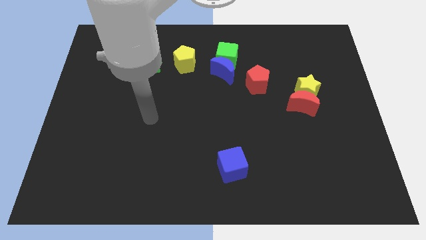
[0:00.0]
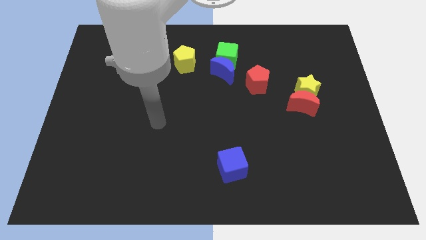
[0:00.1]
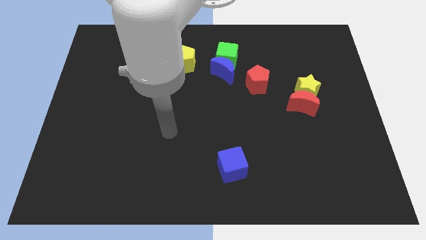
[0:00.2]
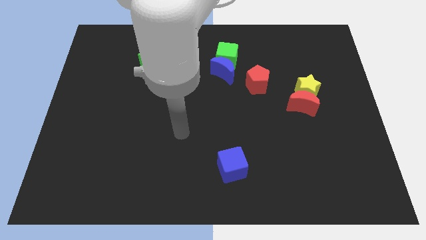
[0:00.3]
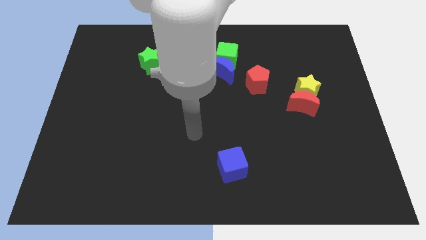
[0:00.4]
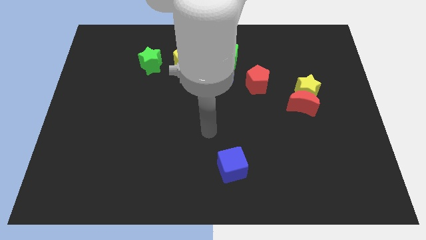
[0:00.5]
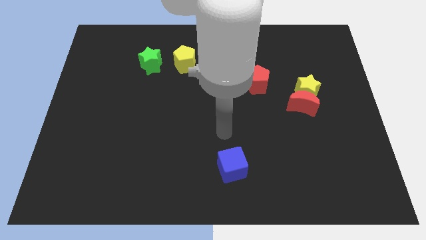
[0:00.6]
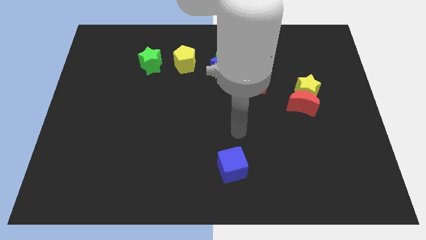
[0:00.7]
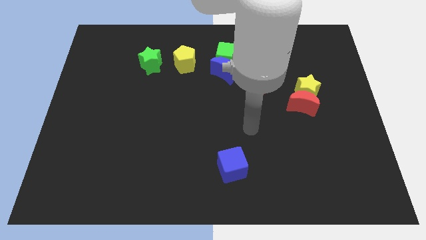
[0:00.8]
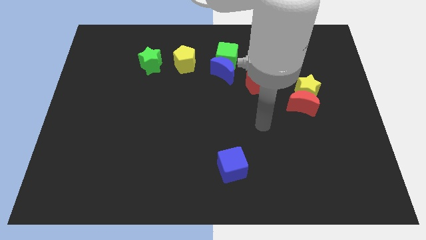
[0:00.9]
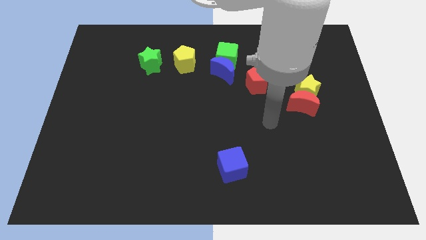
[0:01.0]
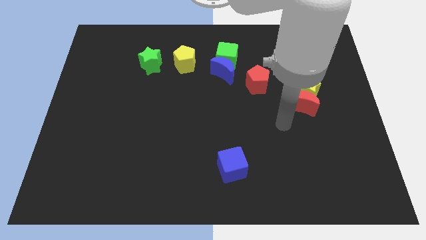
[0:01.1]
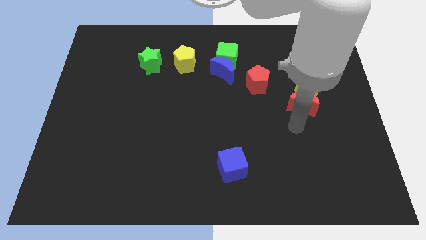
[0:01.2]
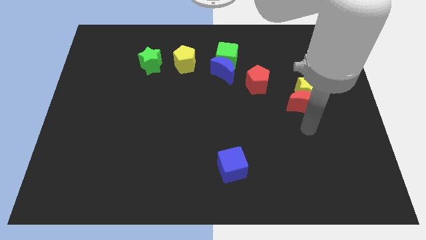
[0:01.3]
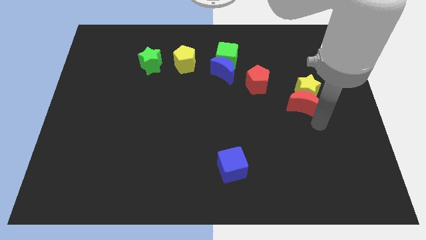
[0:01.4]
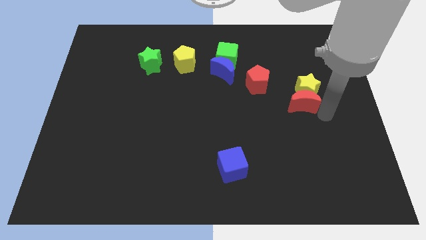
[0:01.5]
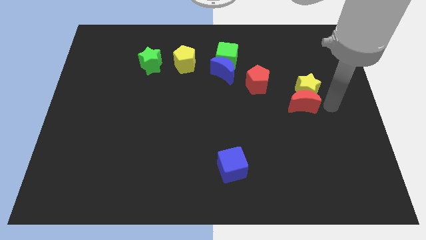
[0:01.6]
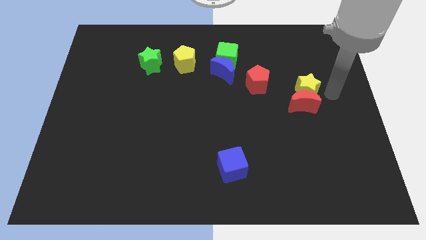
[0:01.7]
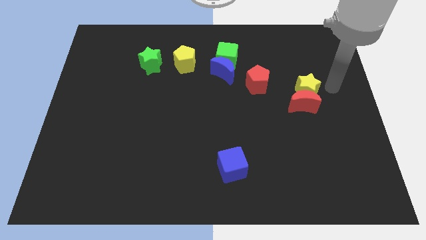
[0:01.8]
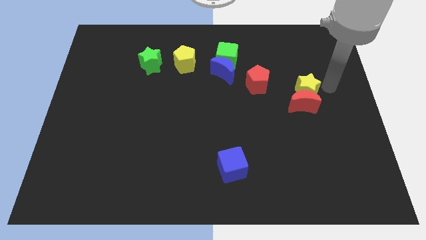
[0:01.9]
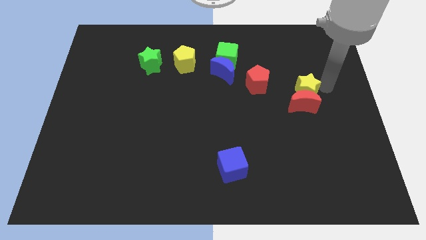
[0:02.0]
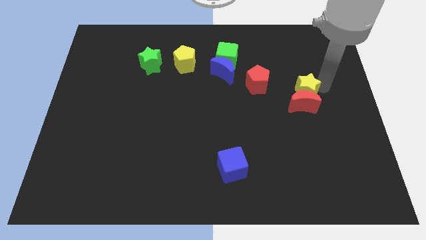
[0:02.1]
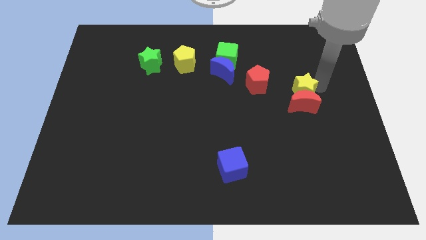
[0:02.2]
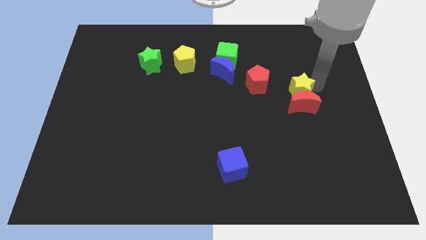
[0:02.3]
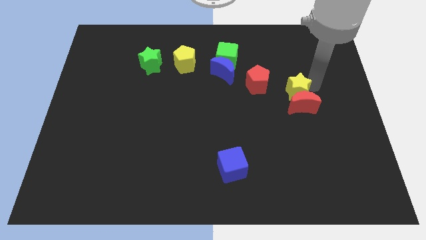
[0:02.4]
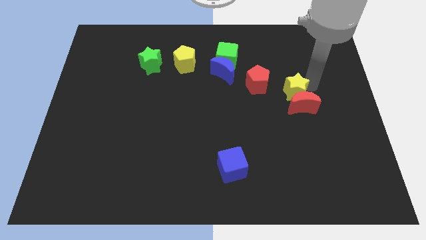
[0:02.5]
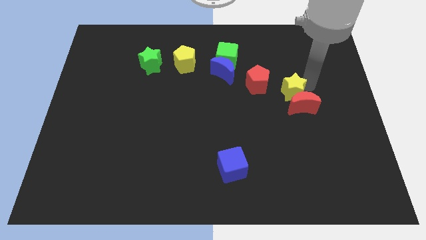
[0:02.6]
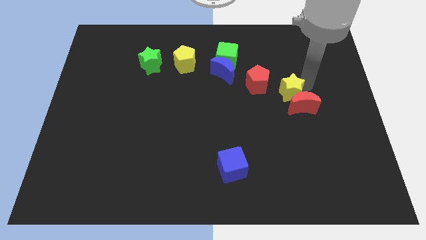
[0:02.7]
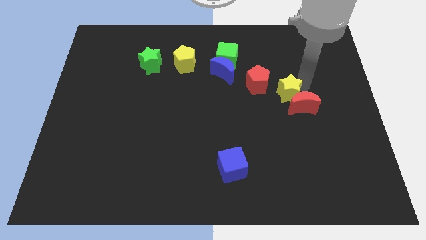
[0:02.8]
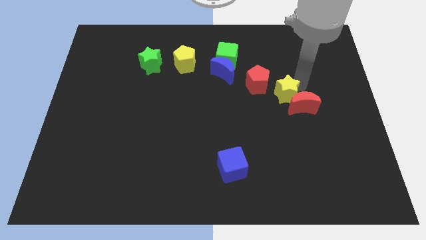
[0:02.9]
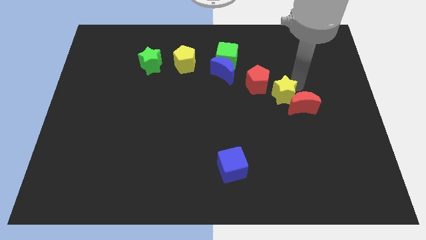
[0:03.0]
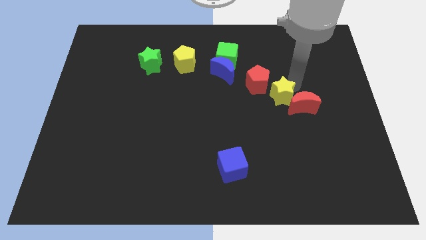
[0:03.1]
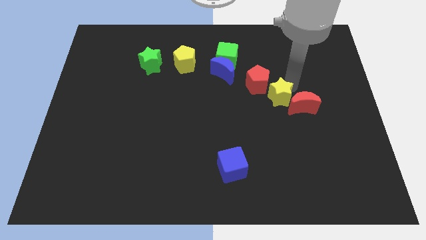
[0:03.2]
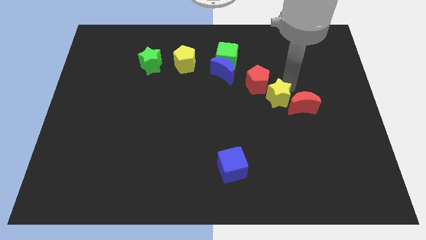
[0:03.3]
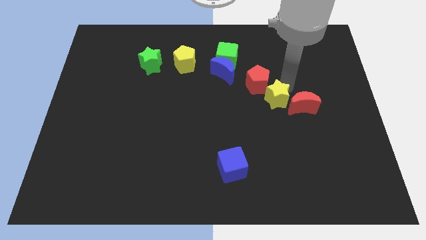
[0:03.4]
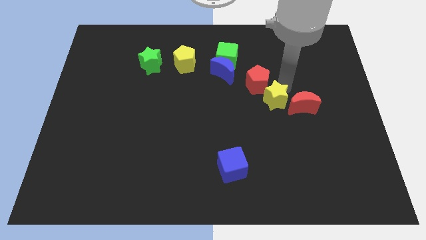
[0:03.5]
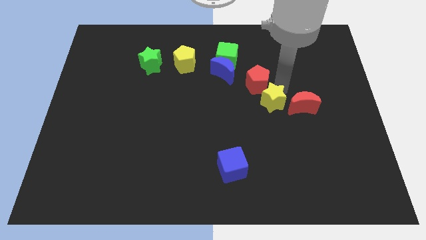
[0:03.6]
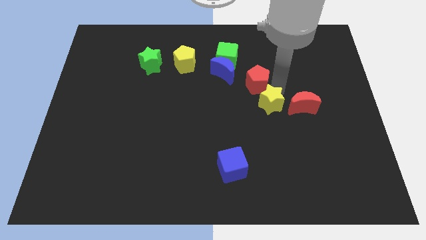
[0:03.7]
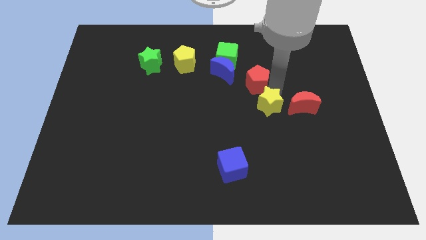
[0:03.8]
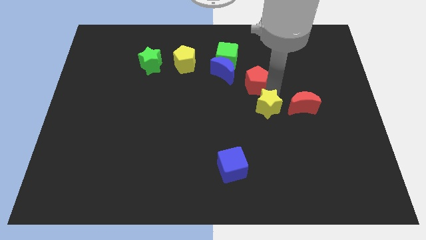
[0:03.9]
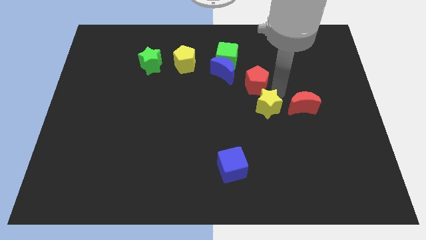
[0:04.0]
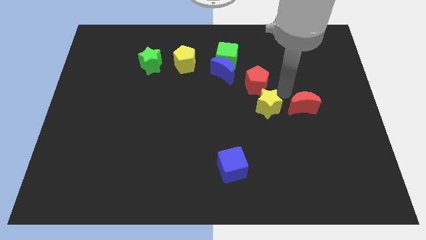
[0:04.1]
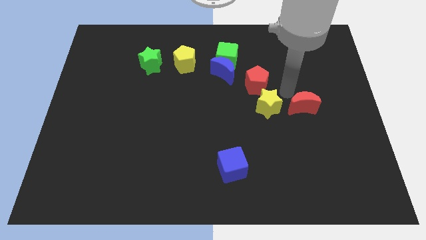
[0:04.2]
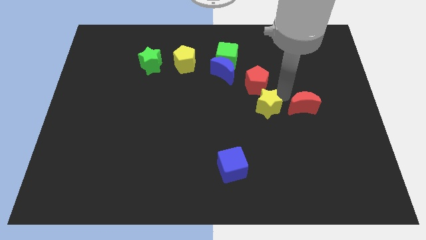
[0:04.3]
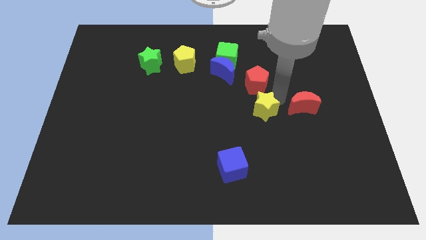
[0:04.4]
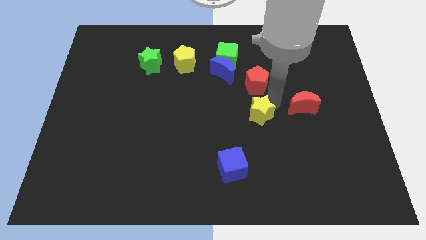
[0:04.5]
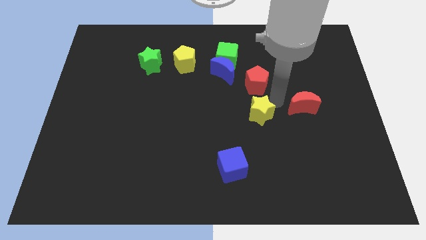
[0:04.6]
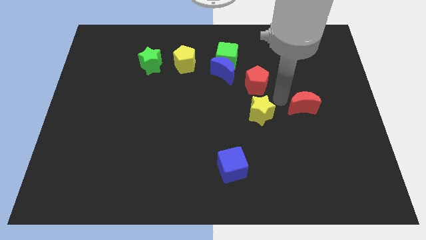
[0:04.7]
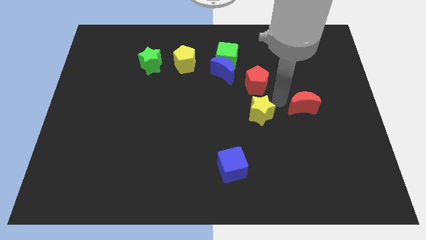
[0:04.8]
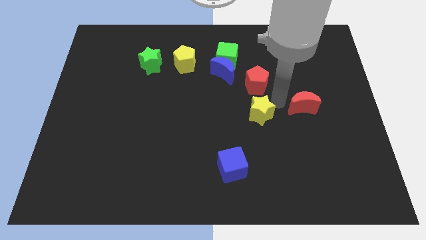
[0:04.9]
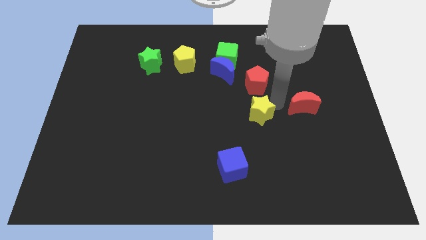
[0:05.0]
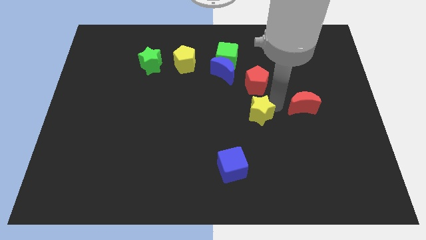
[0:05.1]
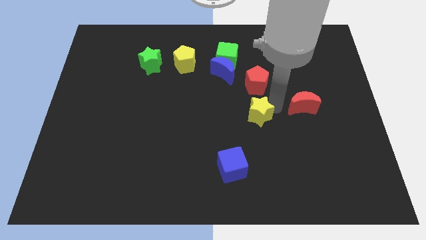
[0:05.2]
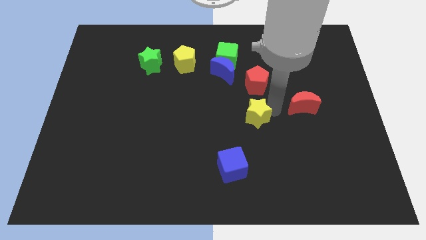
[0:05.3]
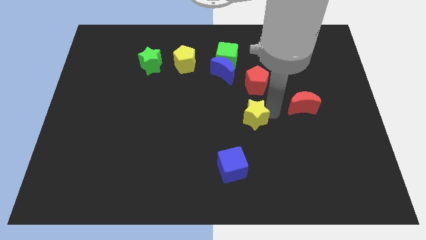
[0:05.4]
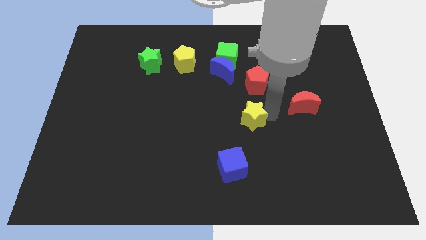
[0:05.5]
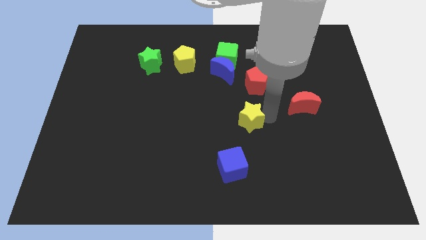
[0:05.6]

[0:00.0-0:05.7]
move the yellow star to the top of the blue cube

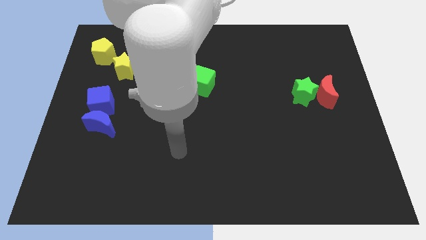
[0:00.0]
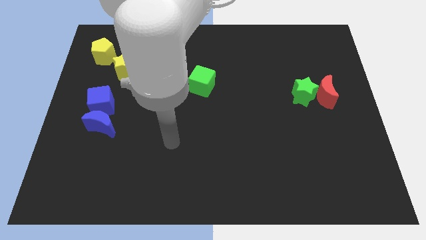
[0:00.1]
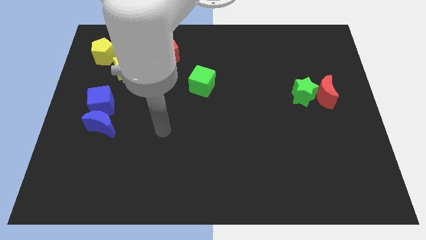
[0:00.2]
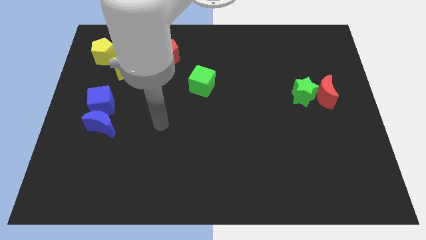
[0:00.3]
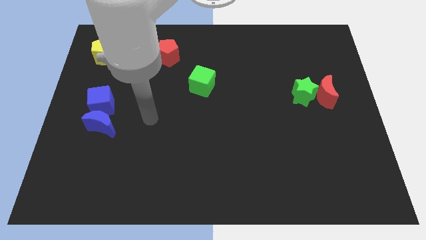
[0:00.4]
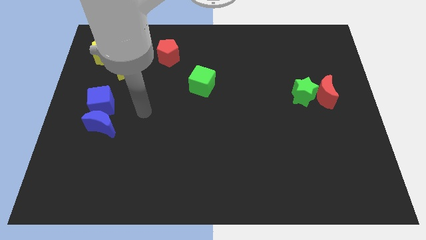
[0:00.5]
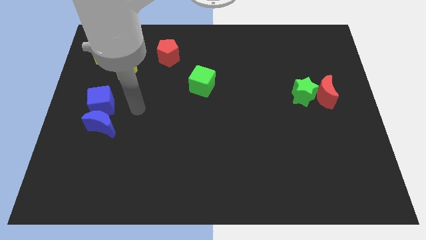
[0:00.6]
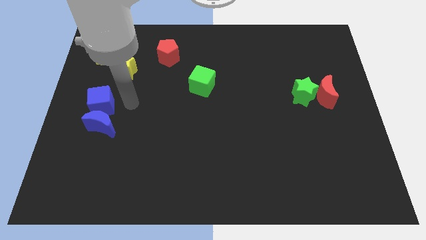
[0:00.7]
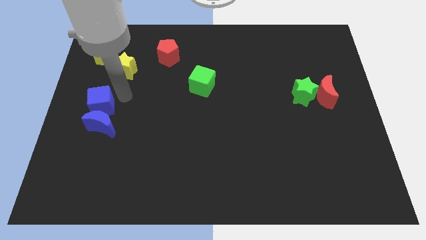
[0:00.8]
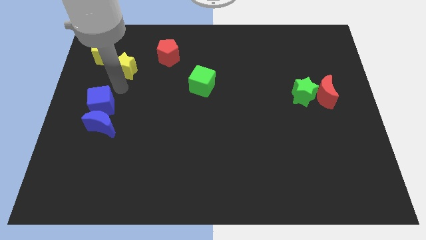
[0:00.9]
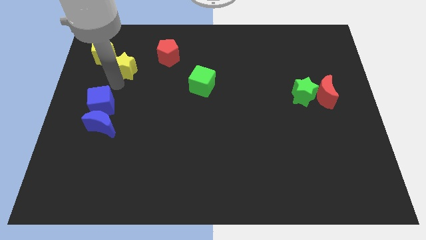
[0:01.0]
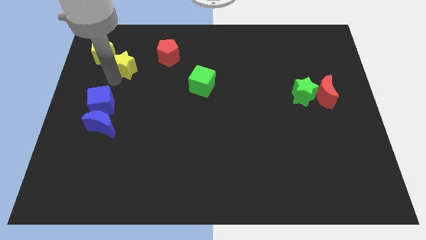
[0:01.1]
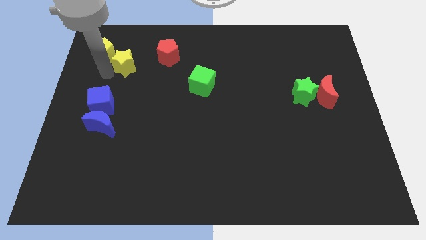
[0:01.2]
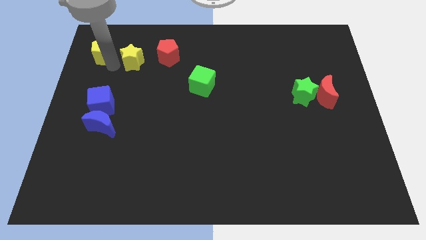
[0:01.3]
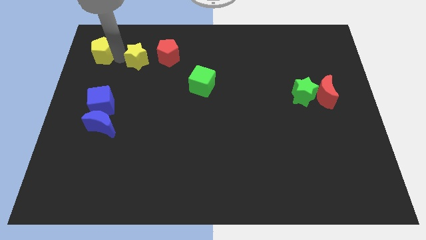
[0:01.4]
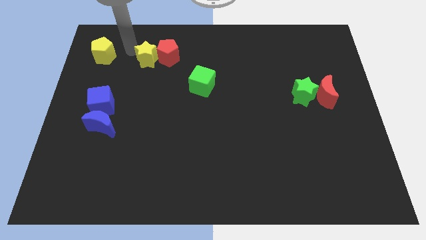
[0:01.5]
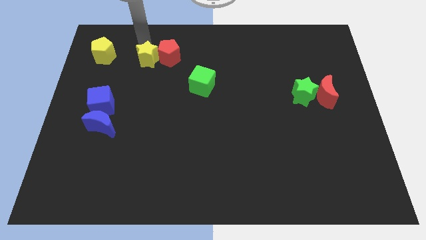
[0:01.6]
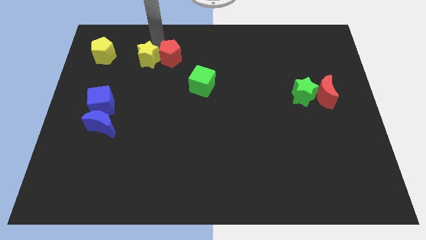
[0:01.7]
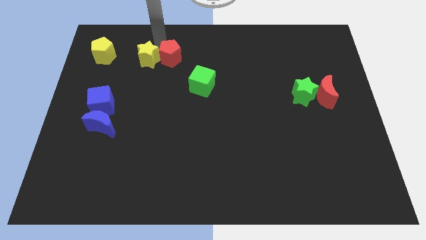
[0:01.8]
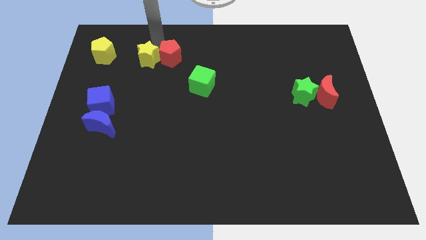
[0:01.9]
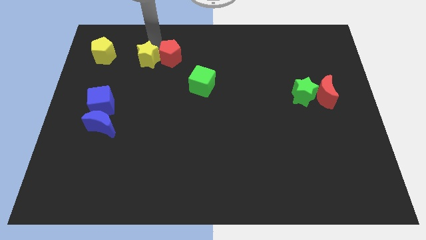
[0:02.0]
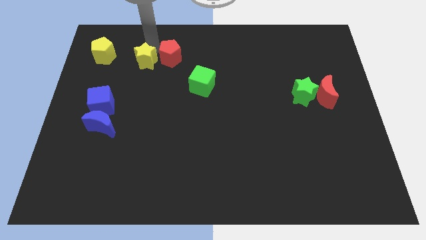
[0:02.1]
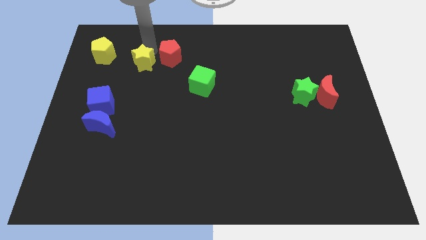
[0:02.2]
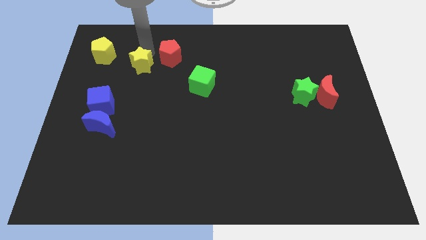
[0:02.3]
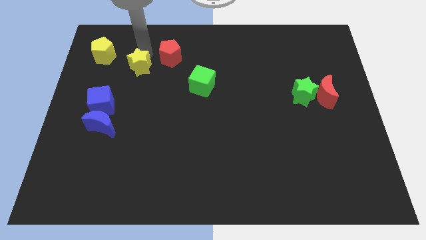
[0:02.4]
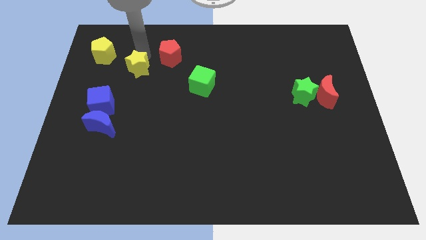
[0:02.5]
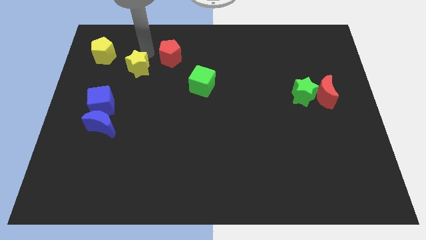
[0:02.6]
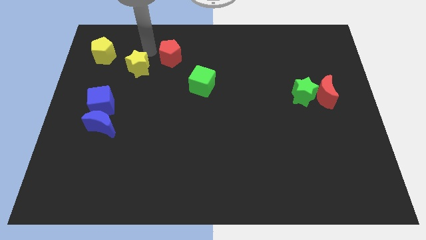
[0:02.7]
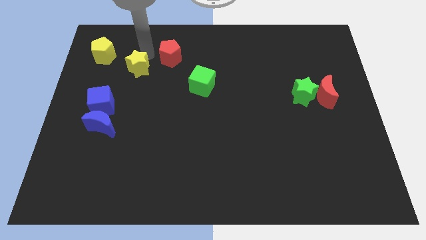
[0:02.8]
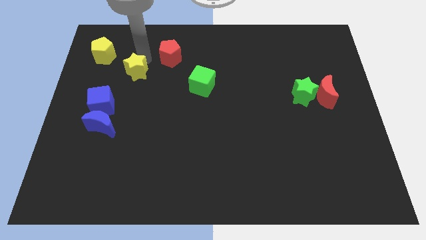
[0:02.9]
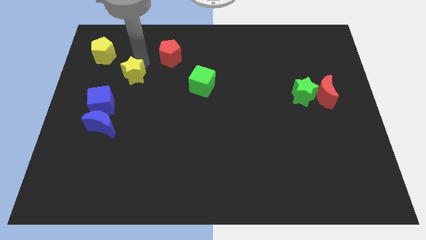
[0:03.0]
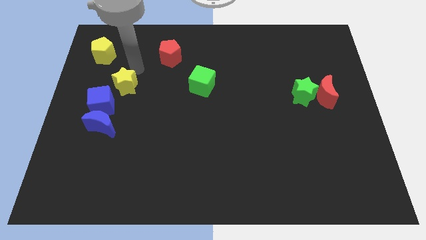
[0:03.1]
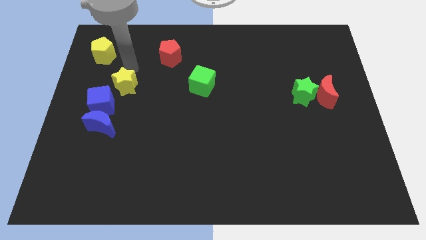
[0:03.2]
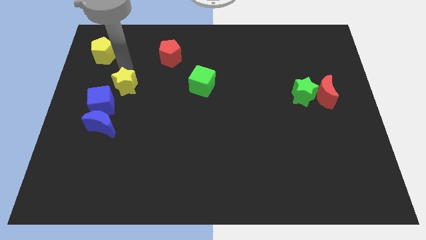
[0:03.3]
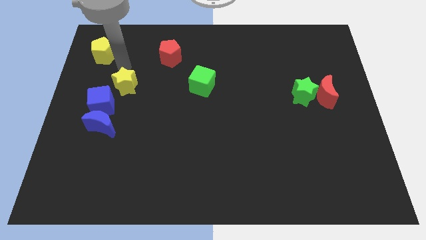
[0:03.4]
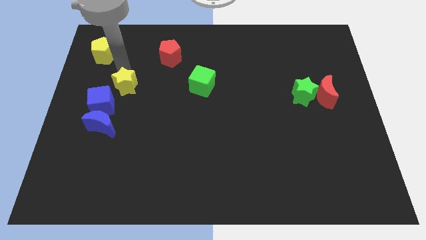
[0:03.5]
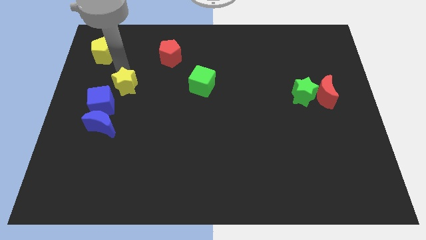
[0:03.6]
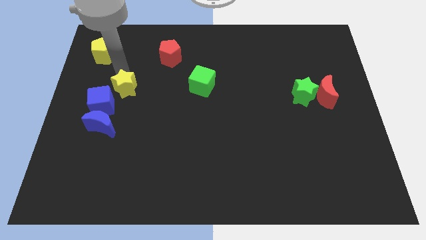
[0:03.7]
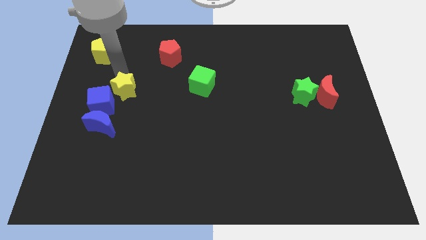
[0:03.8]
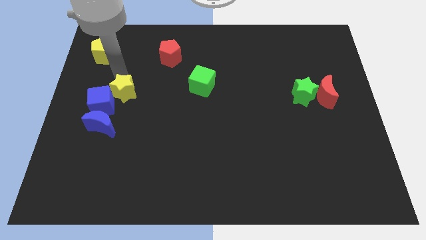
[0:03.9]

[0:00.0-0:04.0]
put the yellow star diagonally up and to the right of the blue moon
